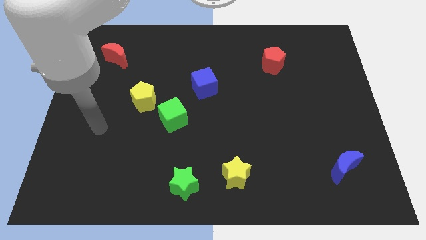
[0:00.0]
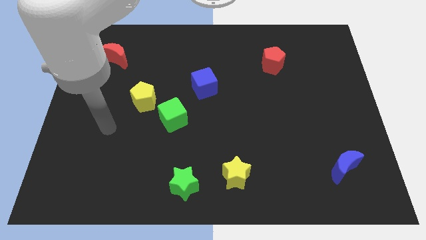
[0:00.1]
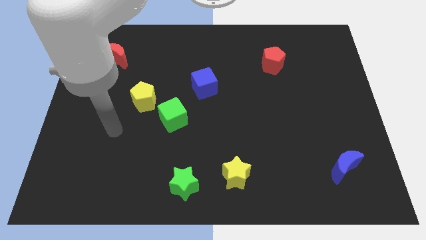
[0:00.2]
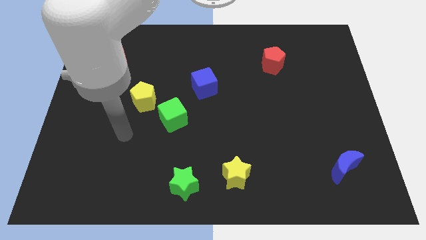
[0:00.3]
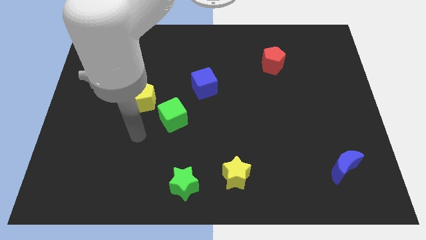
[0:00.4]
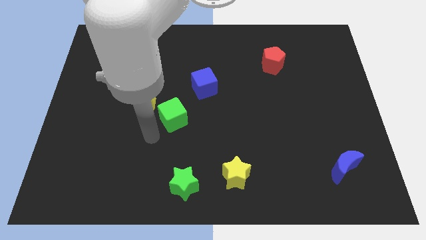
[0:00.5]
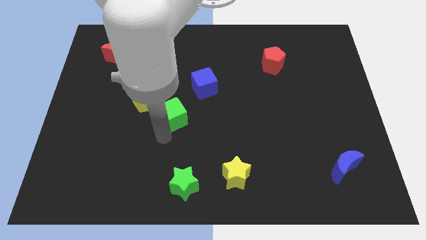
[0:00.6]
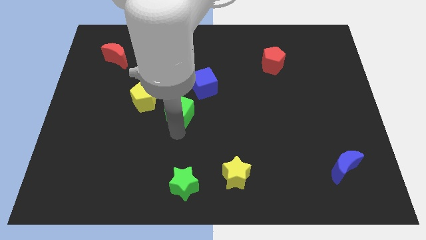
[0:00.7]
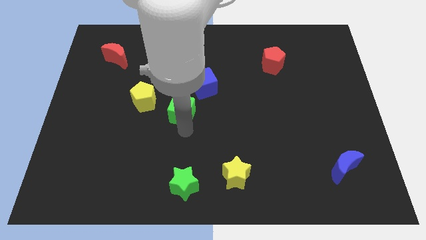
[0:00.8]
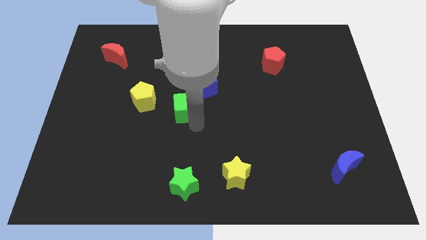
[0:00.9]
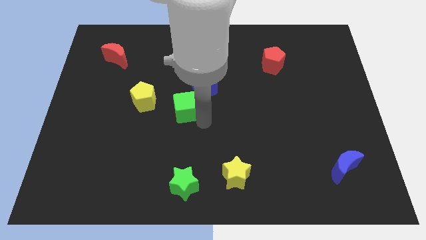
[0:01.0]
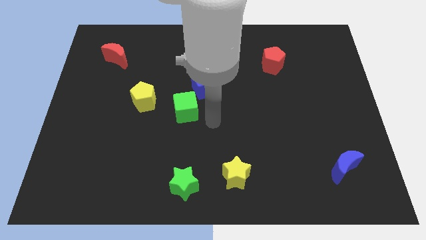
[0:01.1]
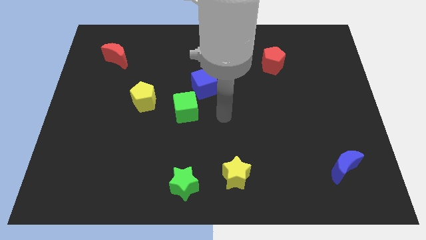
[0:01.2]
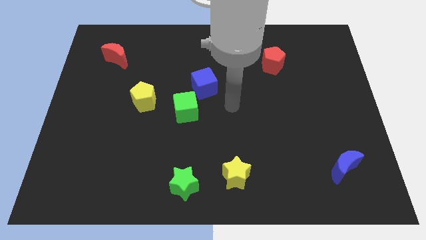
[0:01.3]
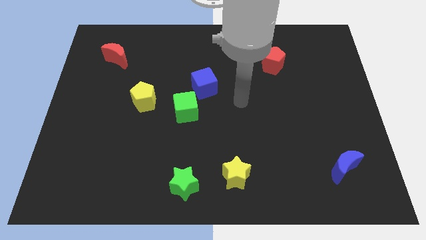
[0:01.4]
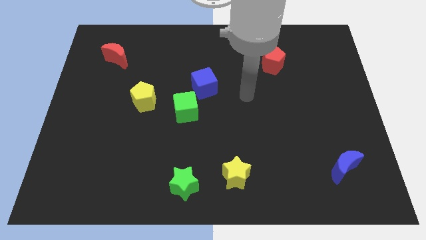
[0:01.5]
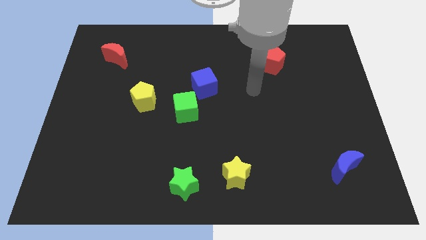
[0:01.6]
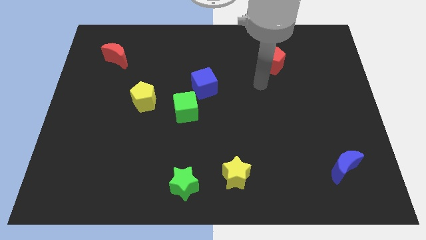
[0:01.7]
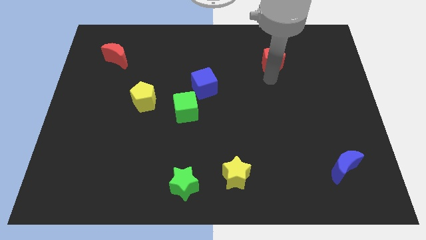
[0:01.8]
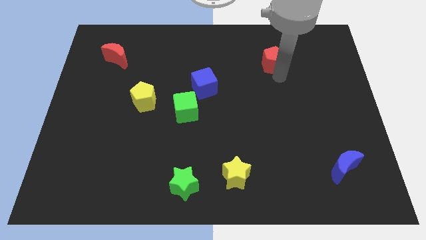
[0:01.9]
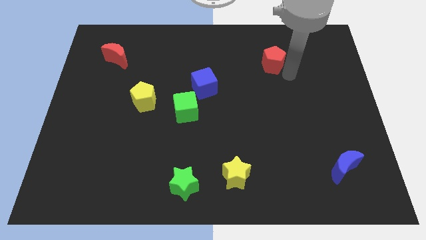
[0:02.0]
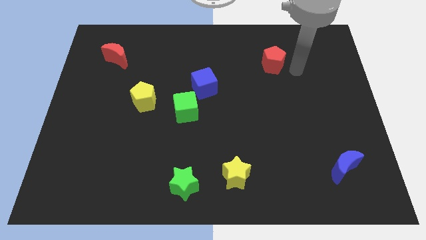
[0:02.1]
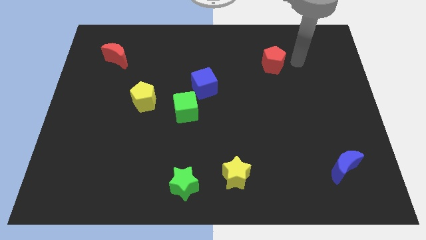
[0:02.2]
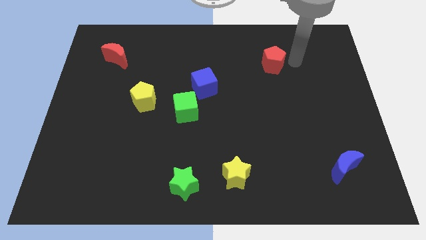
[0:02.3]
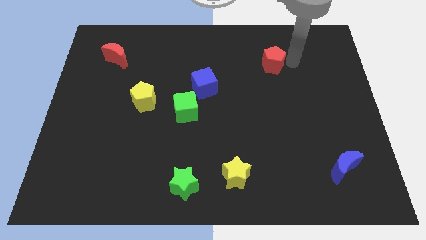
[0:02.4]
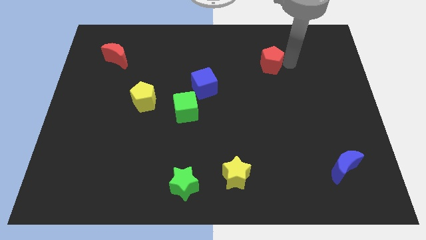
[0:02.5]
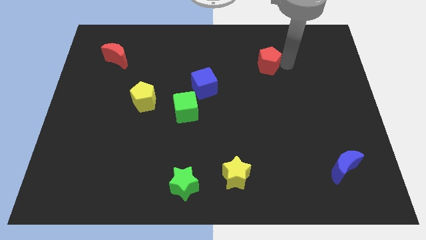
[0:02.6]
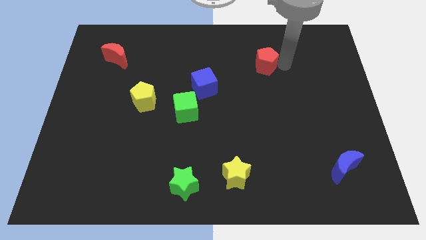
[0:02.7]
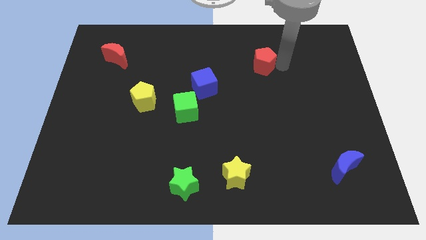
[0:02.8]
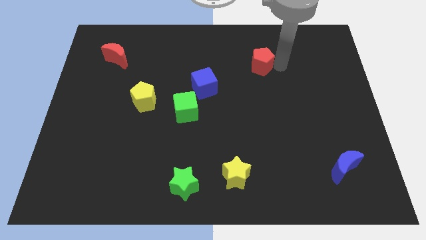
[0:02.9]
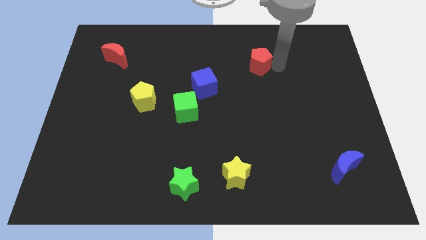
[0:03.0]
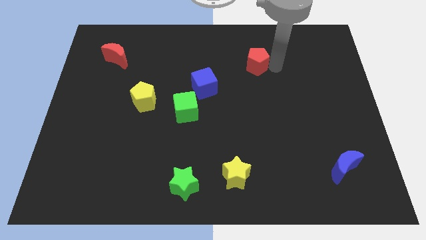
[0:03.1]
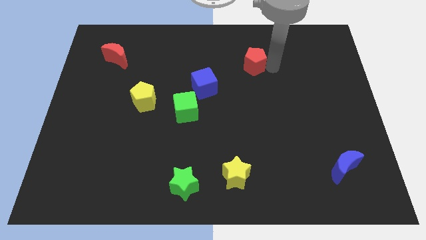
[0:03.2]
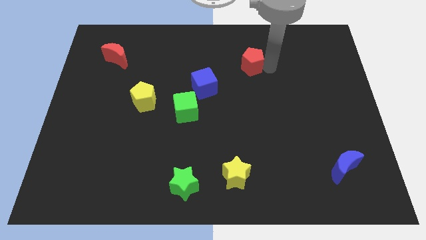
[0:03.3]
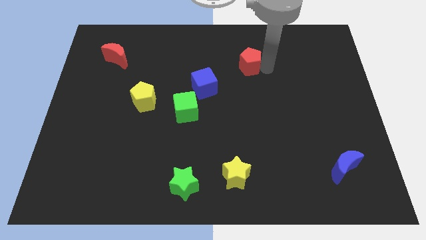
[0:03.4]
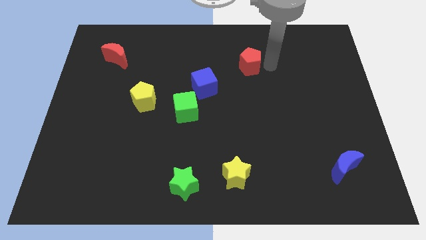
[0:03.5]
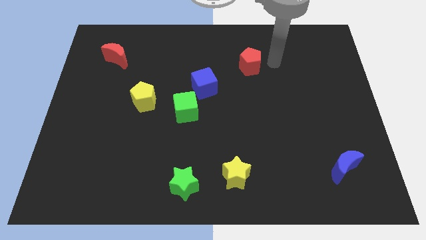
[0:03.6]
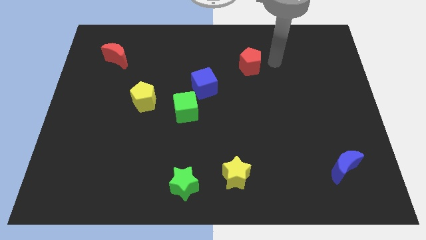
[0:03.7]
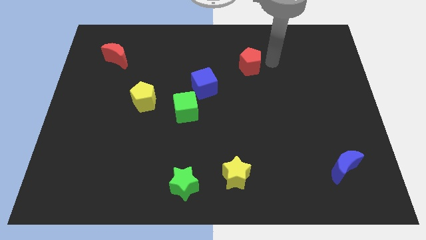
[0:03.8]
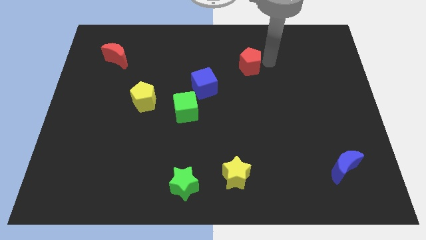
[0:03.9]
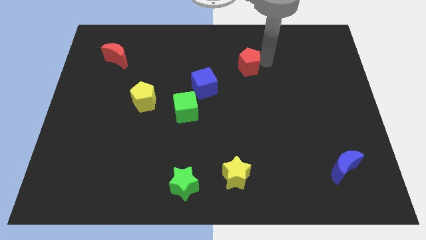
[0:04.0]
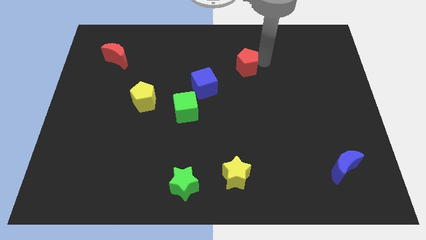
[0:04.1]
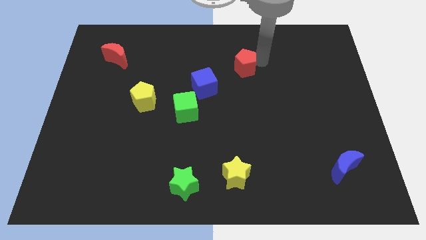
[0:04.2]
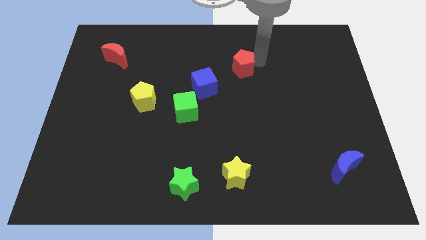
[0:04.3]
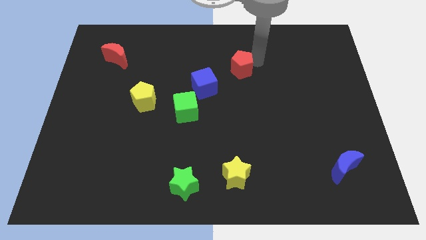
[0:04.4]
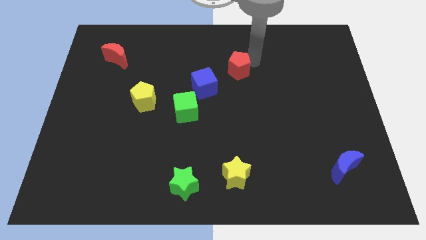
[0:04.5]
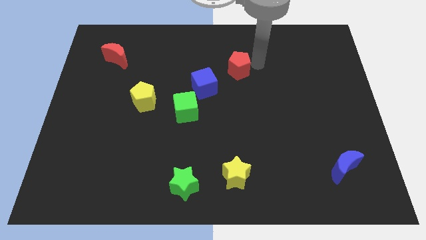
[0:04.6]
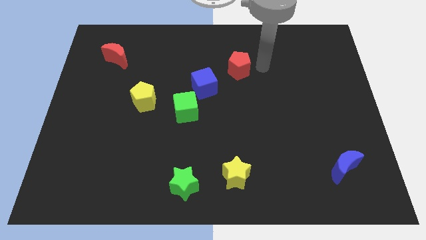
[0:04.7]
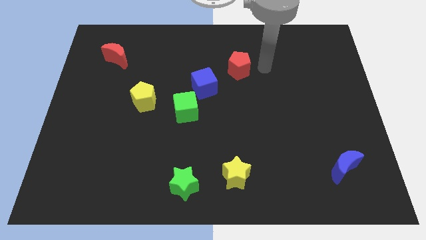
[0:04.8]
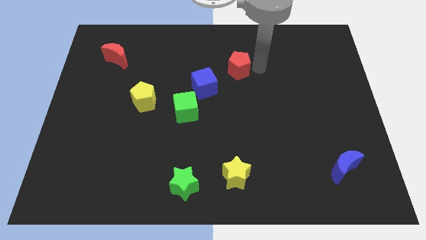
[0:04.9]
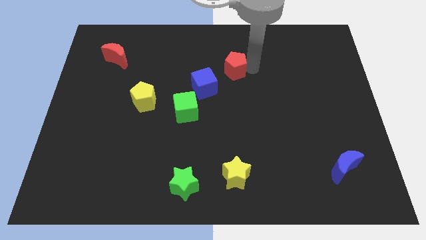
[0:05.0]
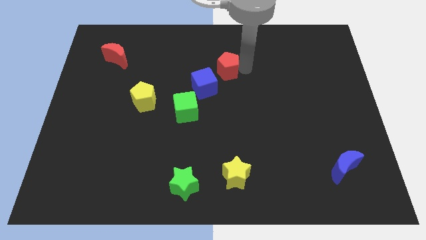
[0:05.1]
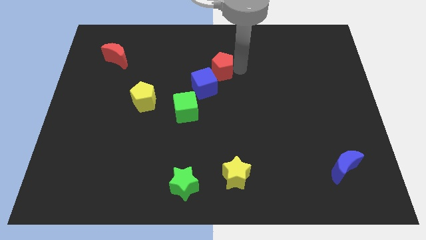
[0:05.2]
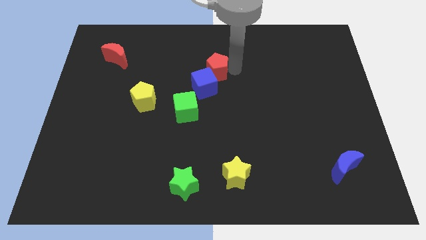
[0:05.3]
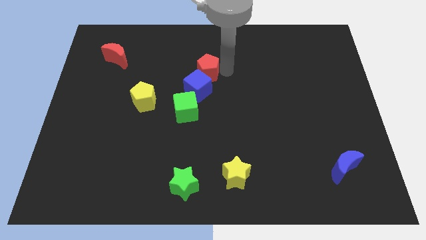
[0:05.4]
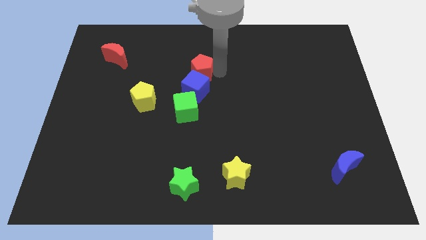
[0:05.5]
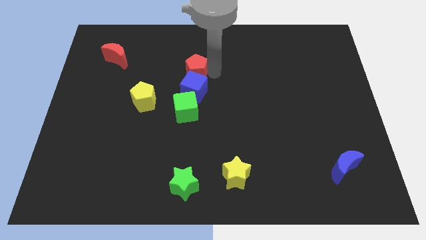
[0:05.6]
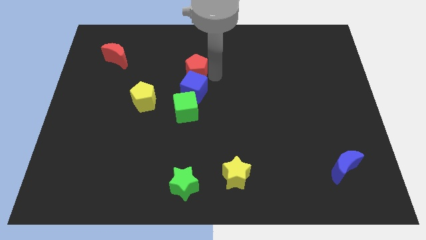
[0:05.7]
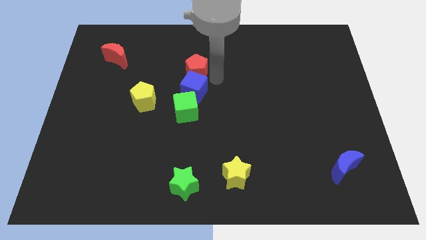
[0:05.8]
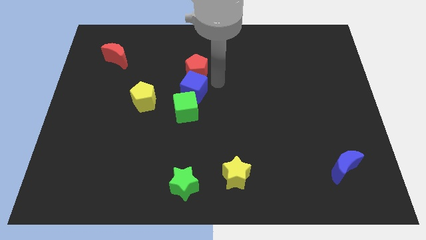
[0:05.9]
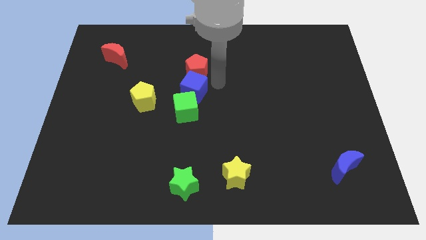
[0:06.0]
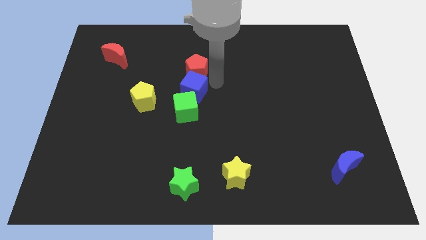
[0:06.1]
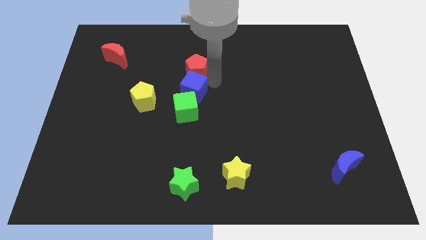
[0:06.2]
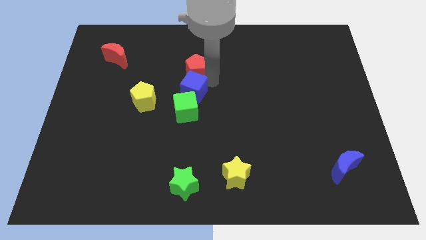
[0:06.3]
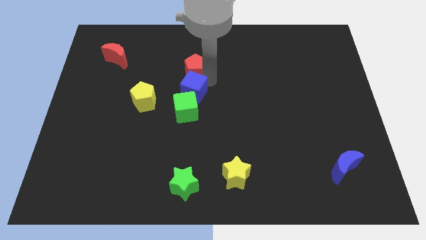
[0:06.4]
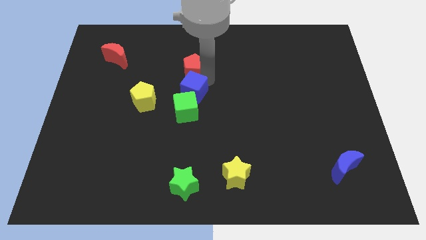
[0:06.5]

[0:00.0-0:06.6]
slide the red pentagon left

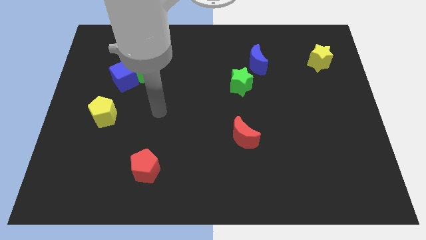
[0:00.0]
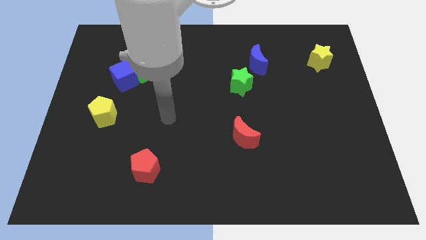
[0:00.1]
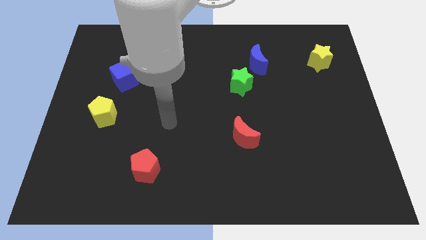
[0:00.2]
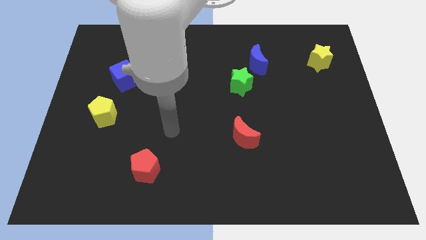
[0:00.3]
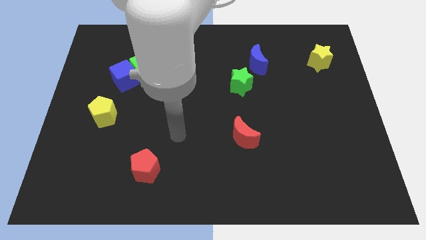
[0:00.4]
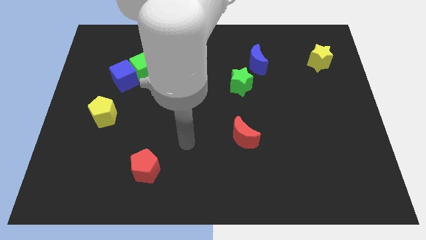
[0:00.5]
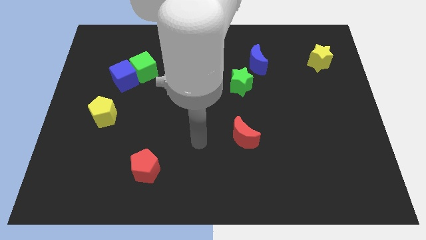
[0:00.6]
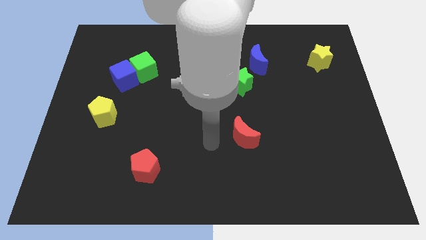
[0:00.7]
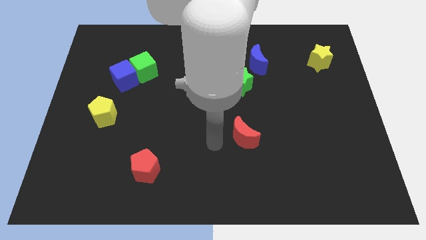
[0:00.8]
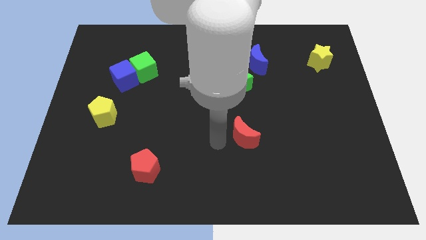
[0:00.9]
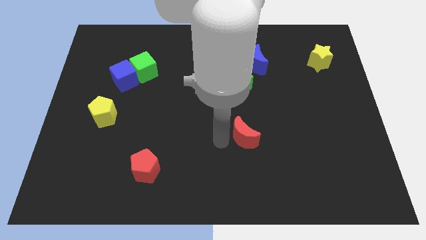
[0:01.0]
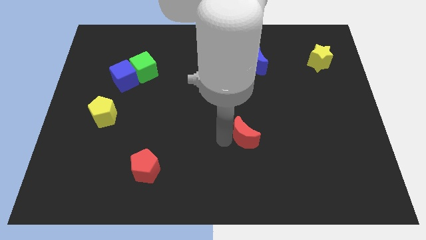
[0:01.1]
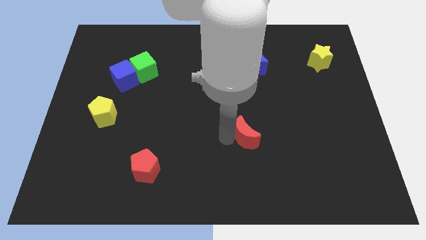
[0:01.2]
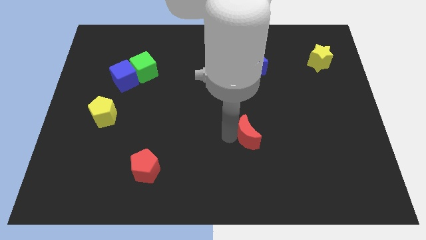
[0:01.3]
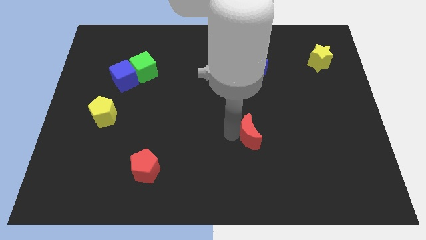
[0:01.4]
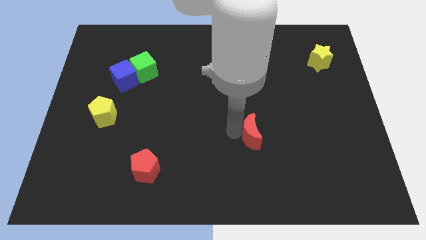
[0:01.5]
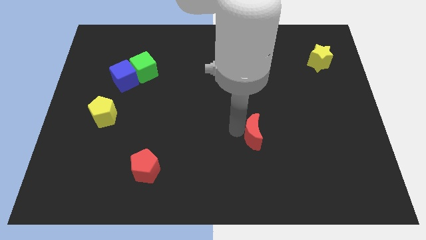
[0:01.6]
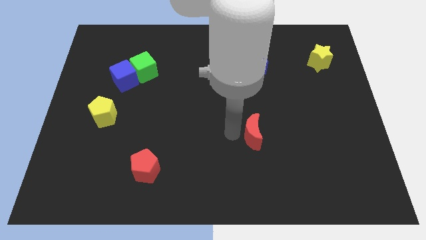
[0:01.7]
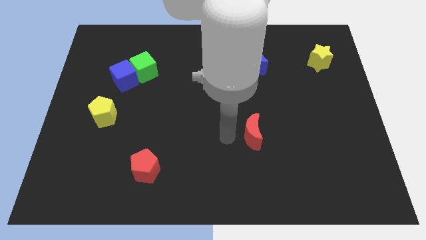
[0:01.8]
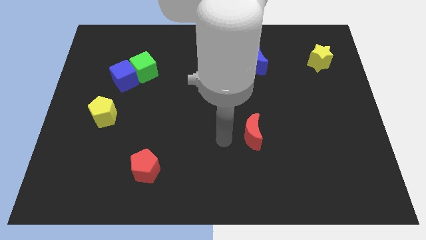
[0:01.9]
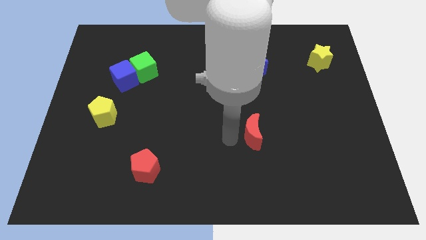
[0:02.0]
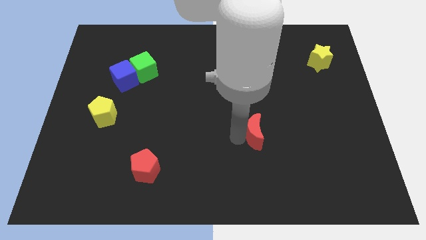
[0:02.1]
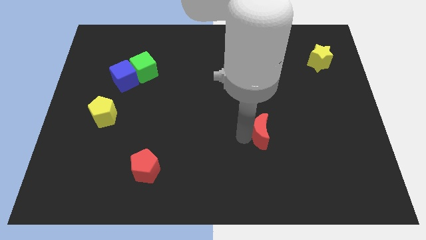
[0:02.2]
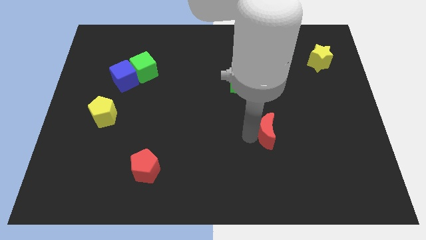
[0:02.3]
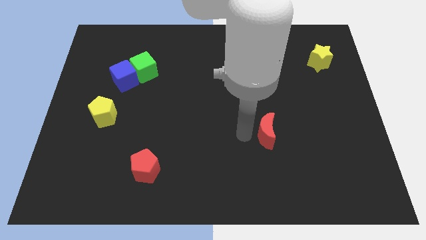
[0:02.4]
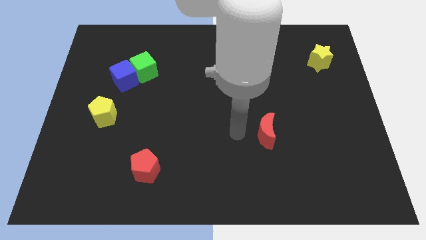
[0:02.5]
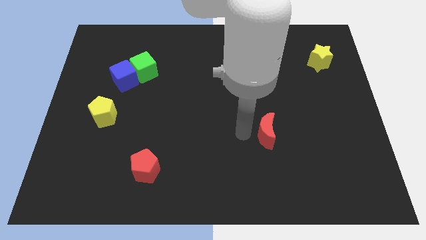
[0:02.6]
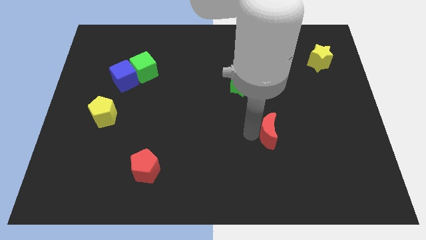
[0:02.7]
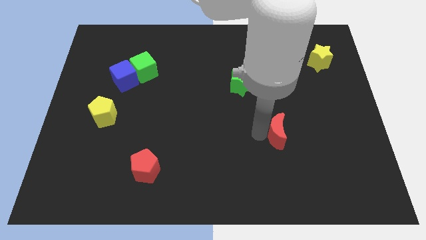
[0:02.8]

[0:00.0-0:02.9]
slightly push the red moon to the right
